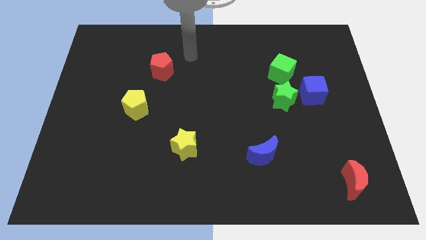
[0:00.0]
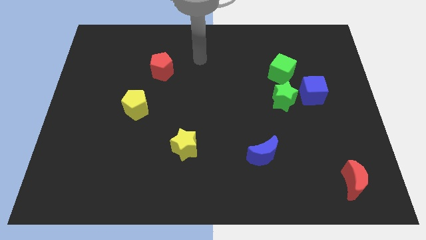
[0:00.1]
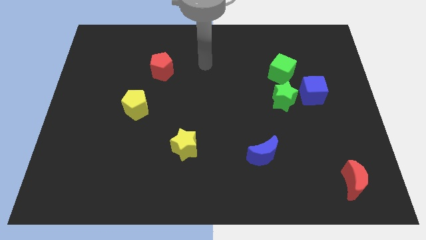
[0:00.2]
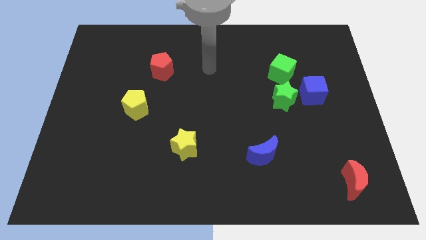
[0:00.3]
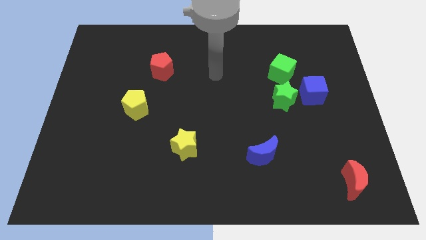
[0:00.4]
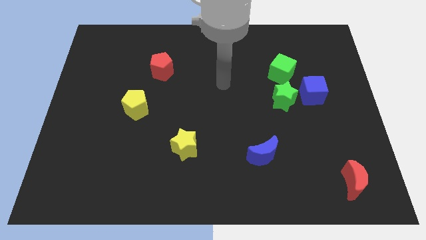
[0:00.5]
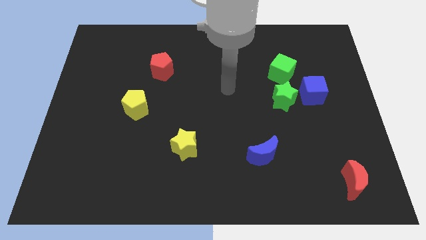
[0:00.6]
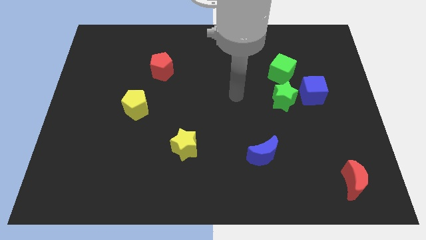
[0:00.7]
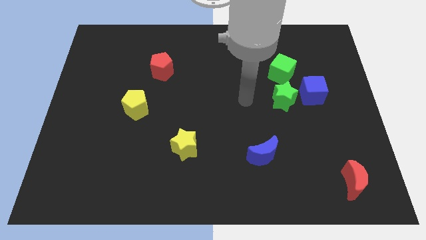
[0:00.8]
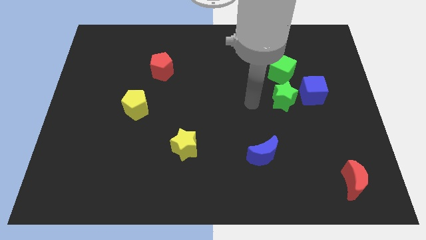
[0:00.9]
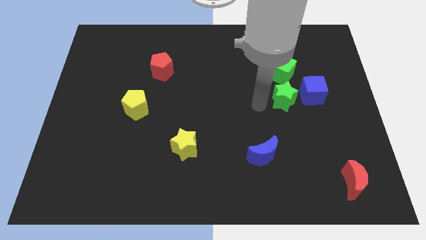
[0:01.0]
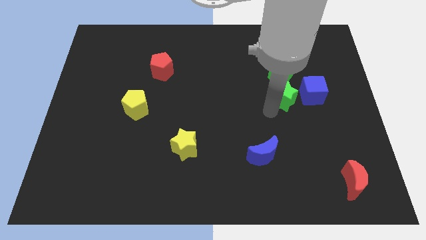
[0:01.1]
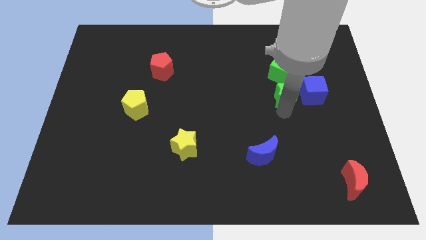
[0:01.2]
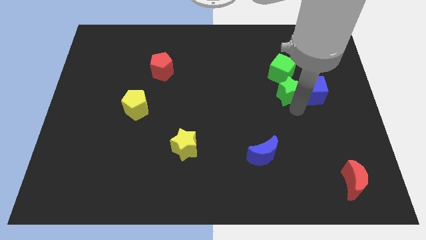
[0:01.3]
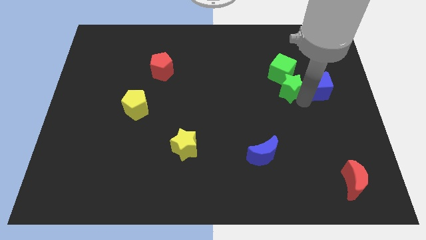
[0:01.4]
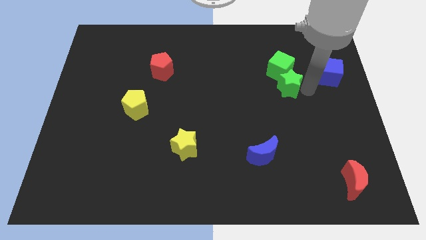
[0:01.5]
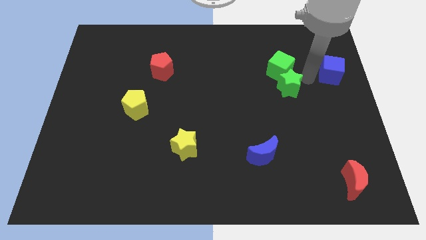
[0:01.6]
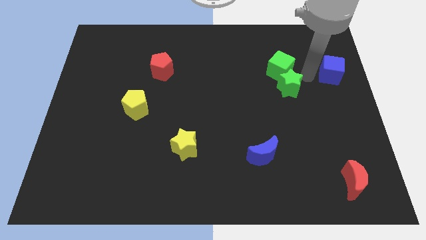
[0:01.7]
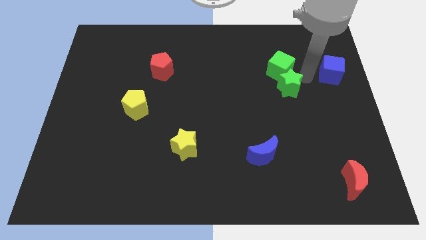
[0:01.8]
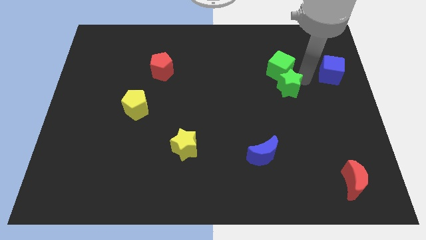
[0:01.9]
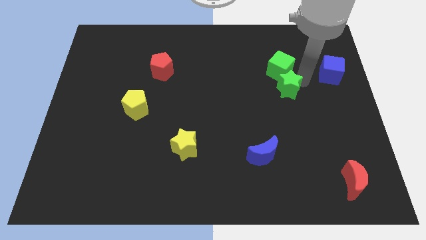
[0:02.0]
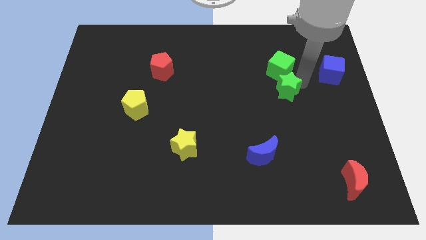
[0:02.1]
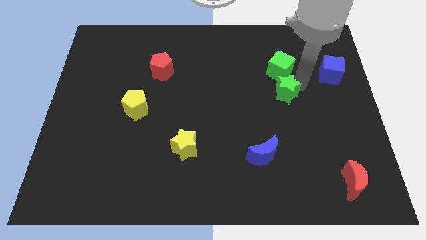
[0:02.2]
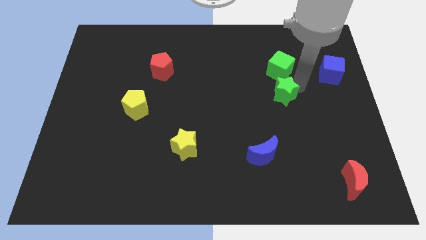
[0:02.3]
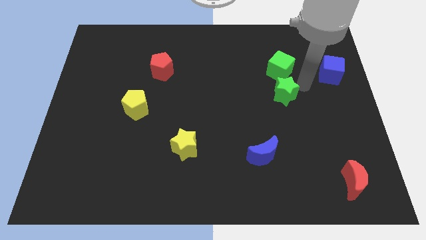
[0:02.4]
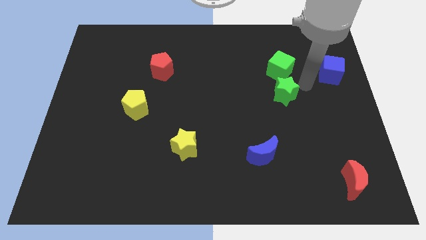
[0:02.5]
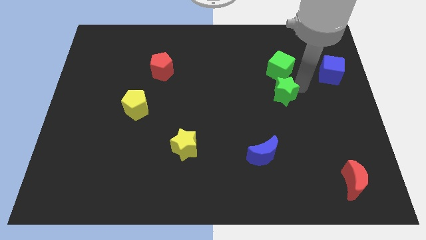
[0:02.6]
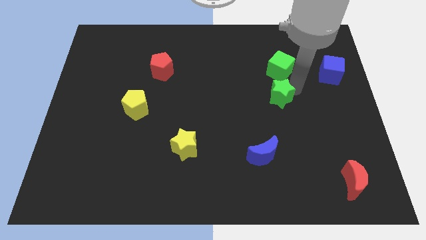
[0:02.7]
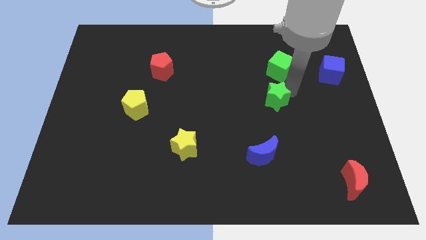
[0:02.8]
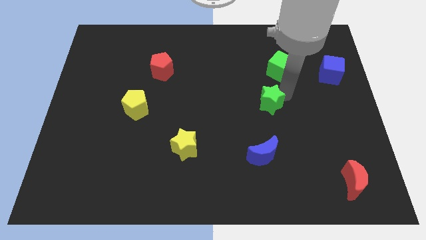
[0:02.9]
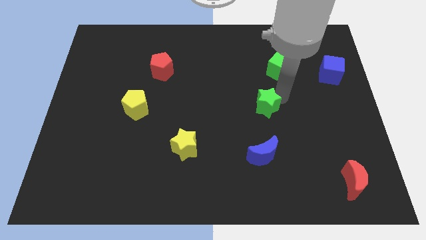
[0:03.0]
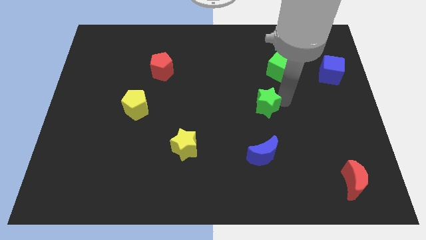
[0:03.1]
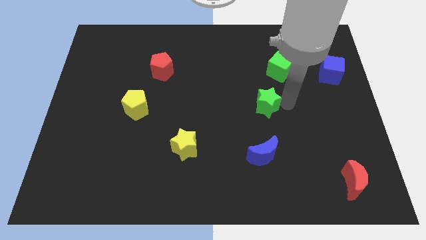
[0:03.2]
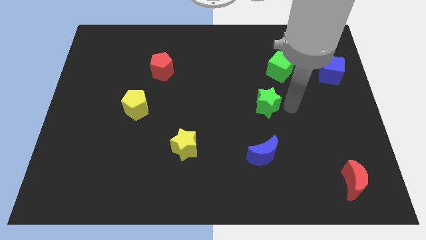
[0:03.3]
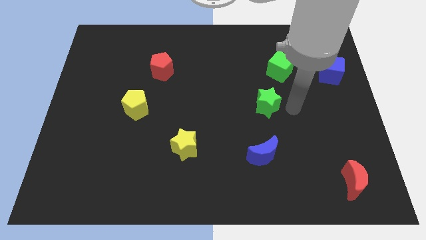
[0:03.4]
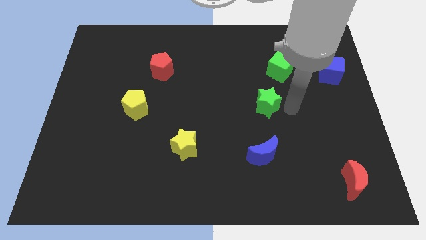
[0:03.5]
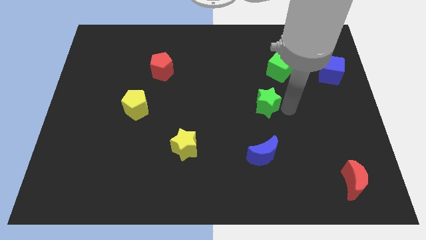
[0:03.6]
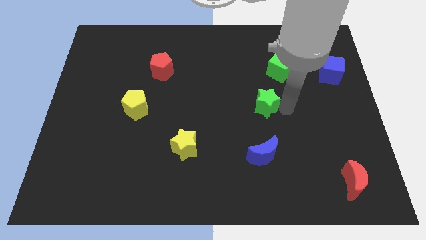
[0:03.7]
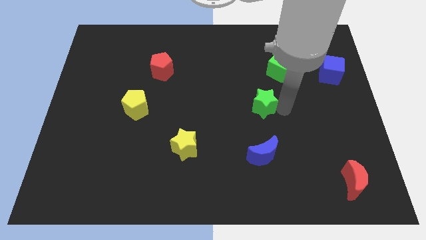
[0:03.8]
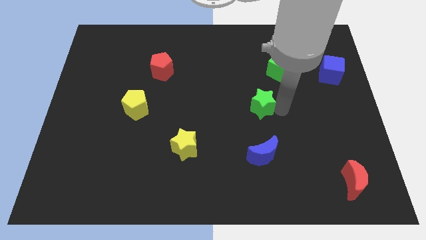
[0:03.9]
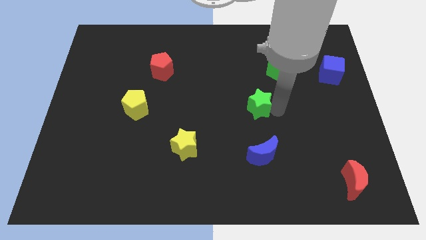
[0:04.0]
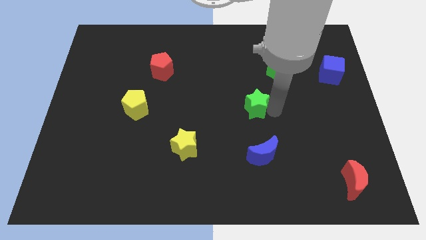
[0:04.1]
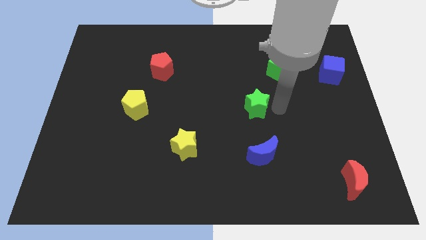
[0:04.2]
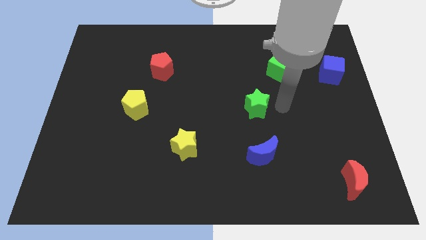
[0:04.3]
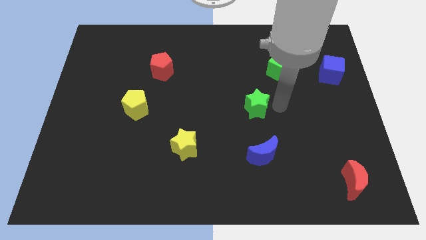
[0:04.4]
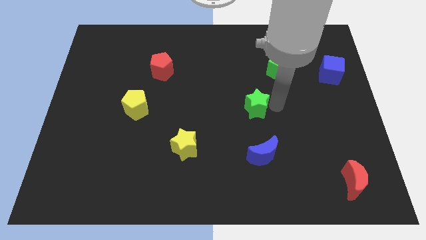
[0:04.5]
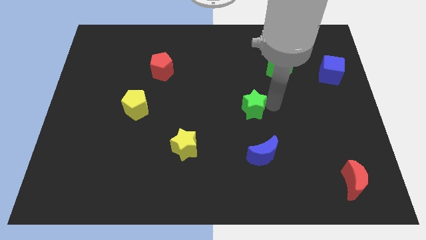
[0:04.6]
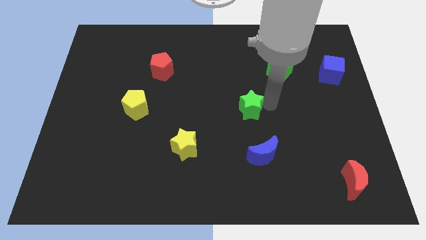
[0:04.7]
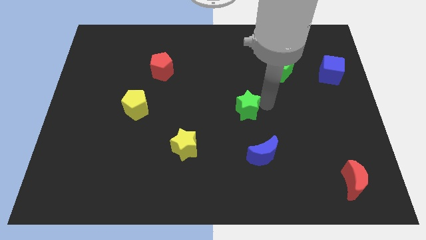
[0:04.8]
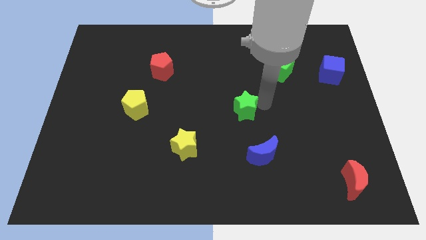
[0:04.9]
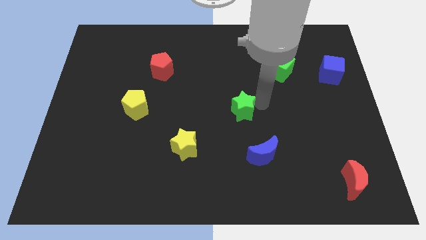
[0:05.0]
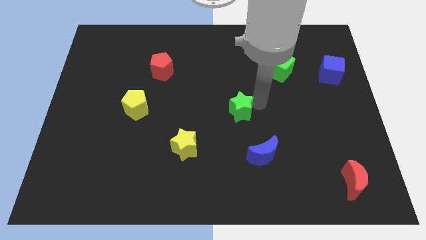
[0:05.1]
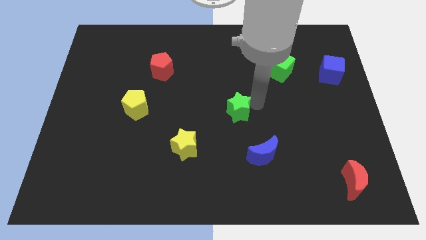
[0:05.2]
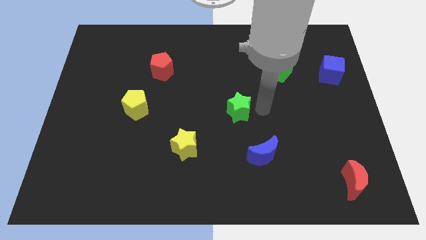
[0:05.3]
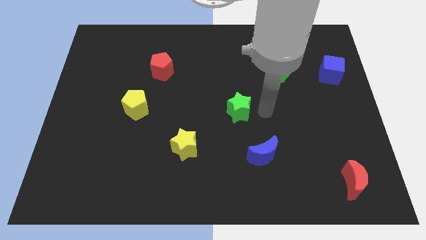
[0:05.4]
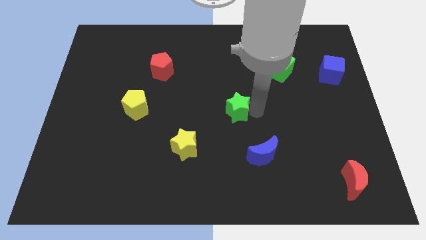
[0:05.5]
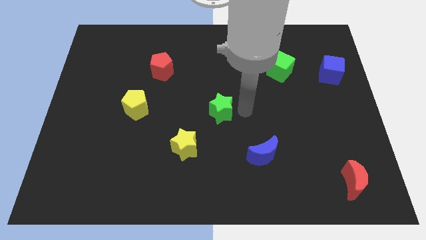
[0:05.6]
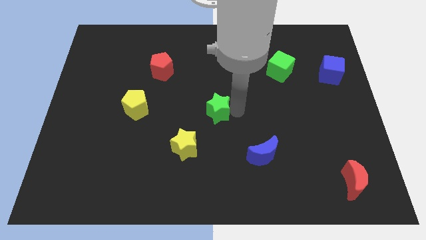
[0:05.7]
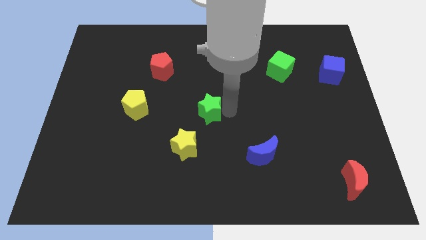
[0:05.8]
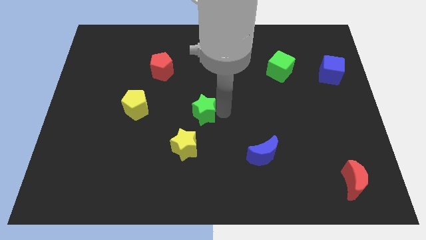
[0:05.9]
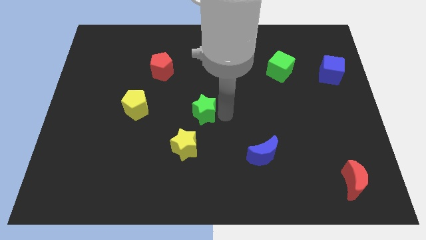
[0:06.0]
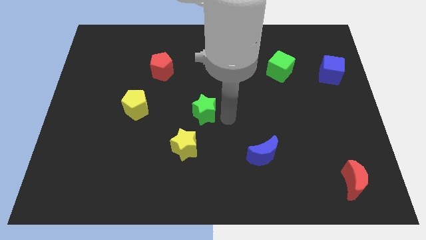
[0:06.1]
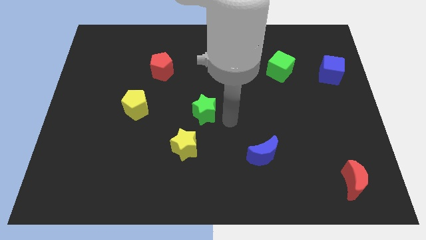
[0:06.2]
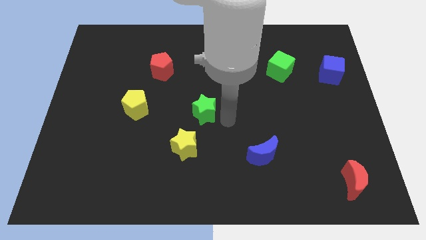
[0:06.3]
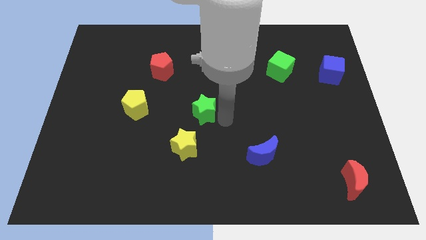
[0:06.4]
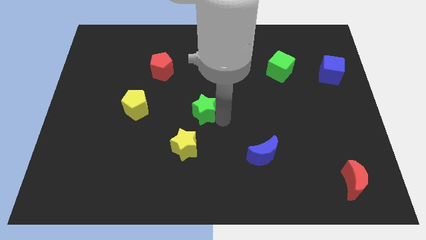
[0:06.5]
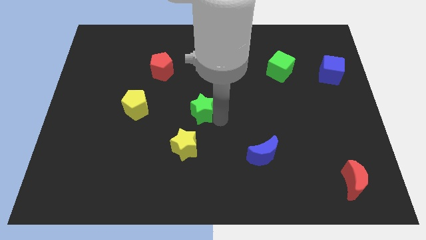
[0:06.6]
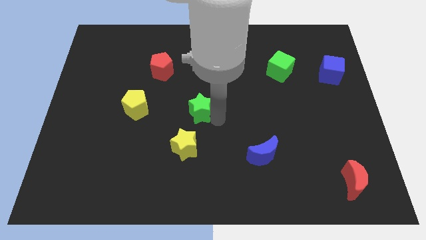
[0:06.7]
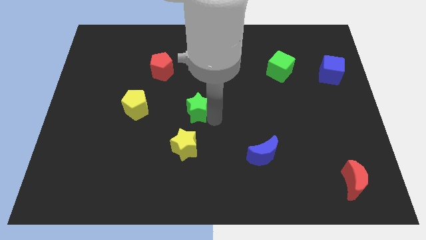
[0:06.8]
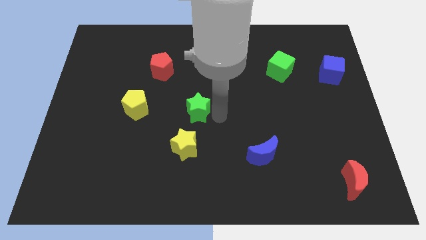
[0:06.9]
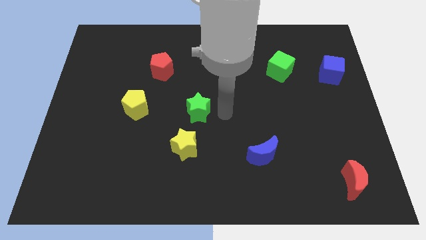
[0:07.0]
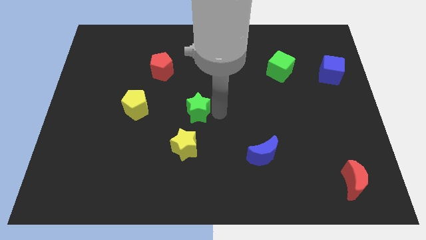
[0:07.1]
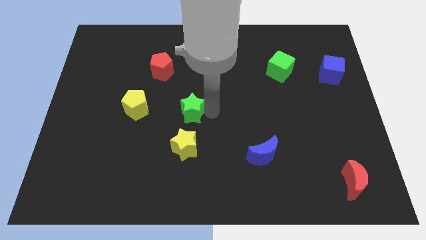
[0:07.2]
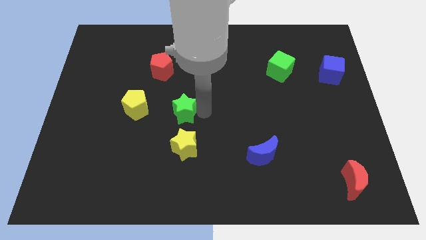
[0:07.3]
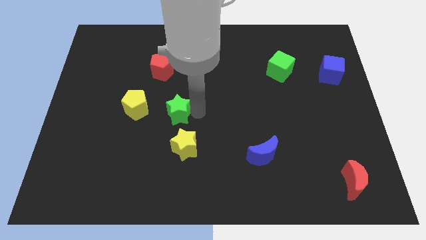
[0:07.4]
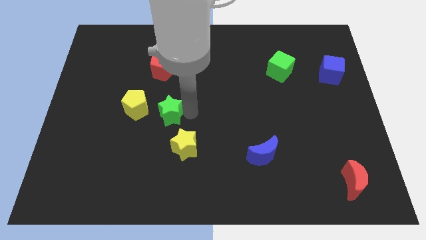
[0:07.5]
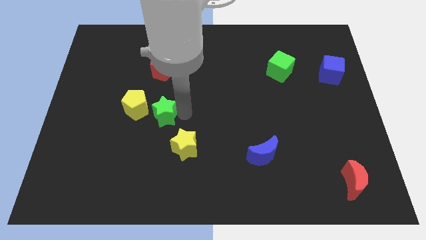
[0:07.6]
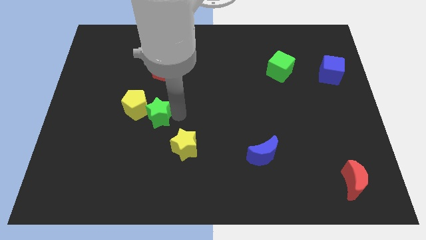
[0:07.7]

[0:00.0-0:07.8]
put the green star next to the yellow pentagon
